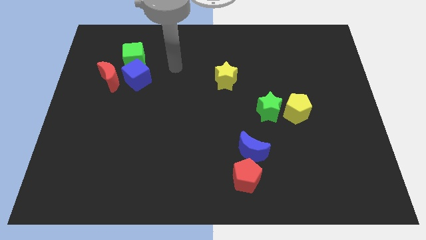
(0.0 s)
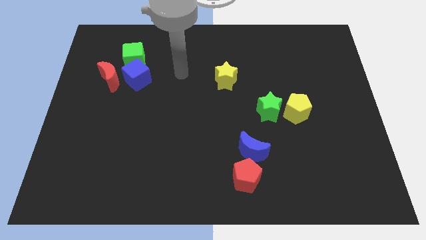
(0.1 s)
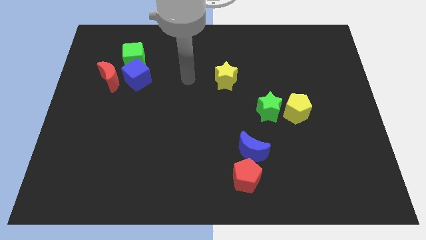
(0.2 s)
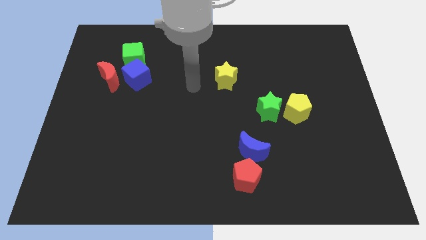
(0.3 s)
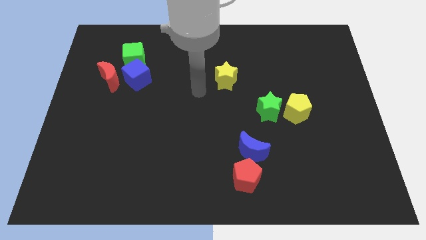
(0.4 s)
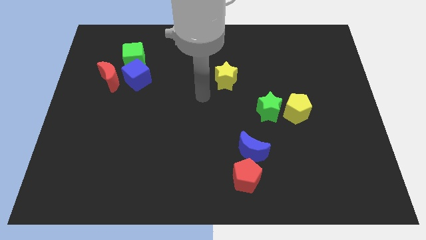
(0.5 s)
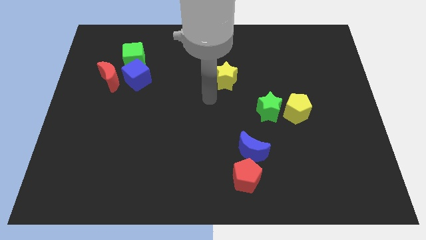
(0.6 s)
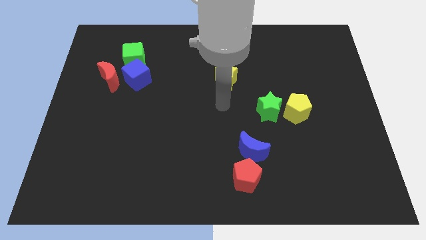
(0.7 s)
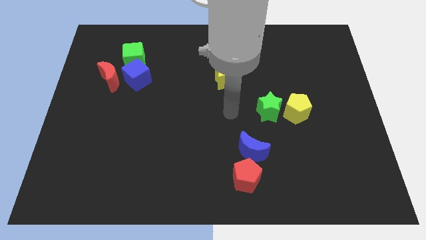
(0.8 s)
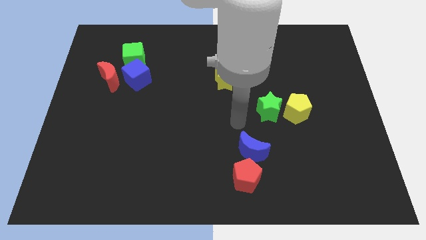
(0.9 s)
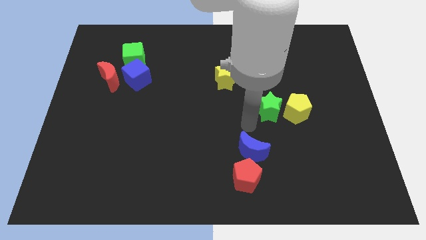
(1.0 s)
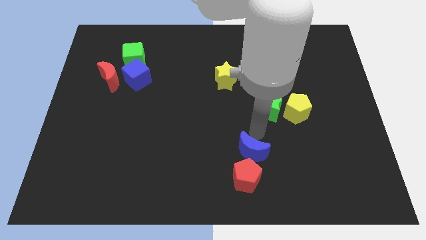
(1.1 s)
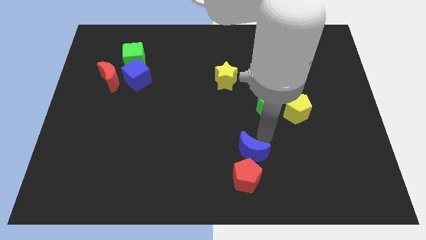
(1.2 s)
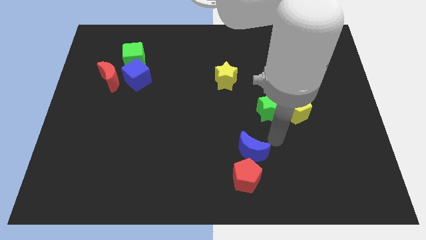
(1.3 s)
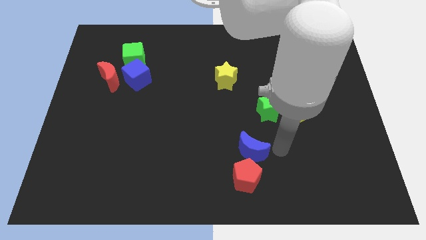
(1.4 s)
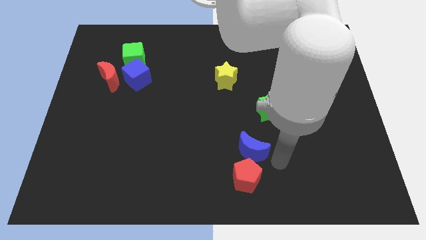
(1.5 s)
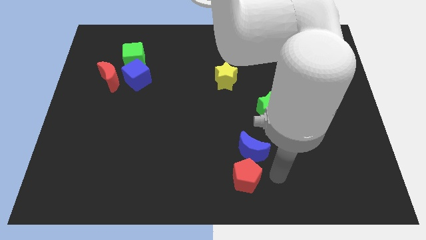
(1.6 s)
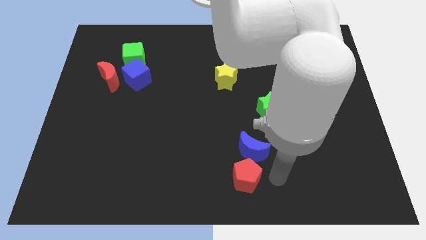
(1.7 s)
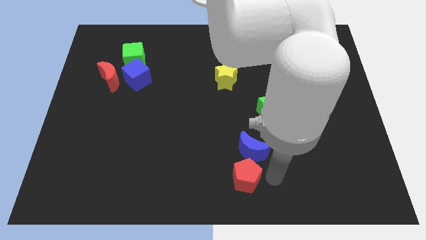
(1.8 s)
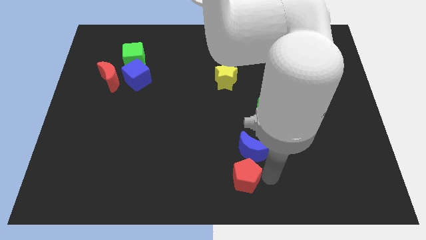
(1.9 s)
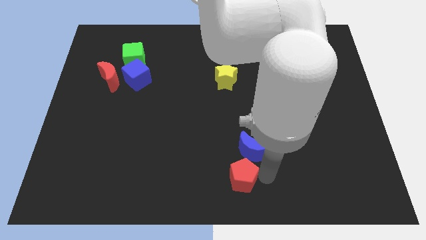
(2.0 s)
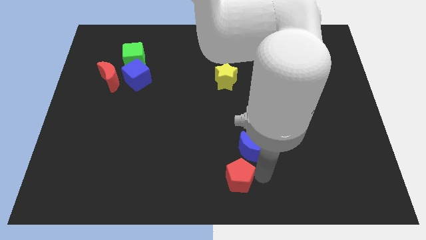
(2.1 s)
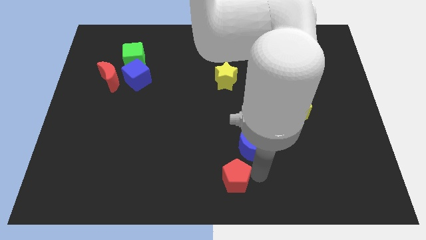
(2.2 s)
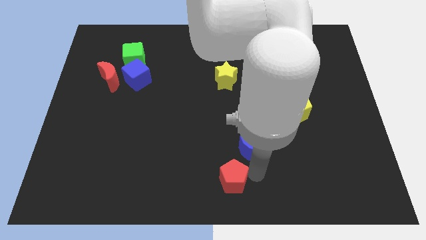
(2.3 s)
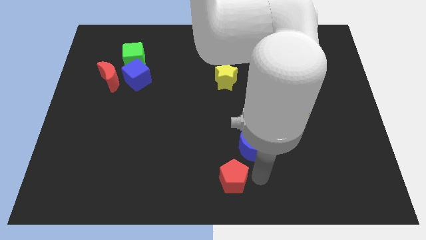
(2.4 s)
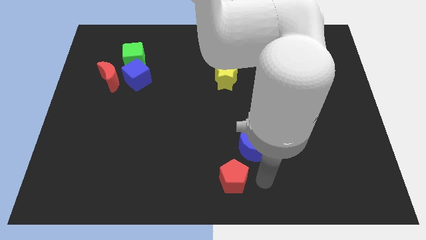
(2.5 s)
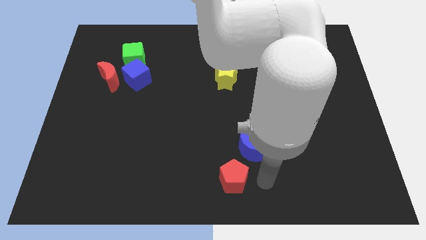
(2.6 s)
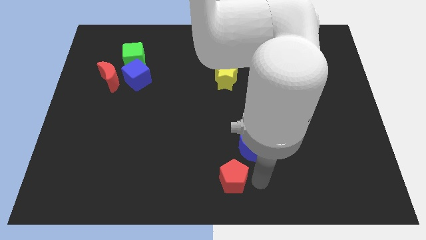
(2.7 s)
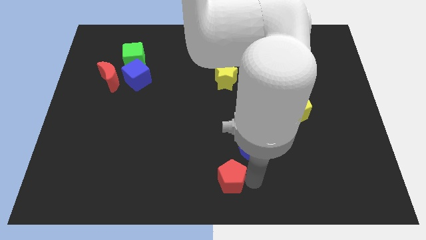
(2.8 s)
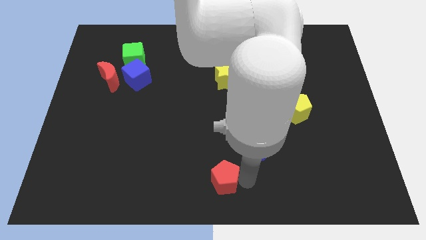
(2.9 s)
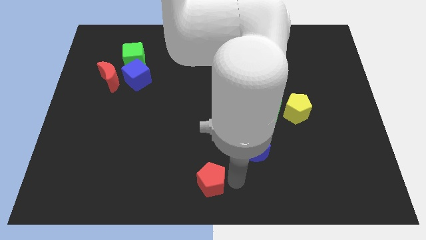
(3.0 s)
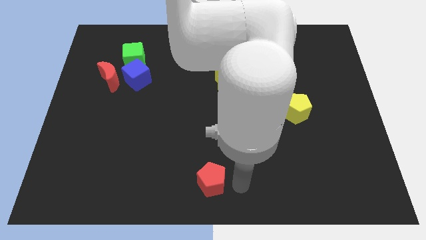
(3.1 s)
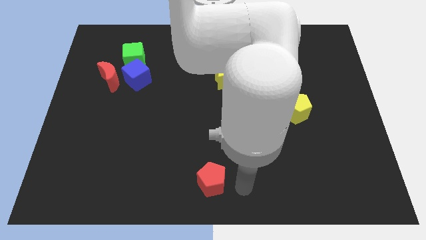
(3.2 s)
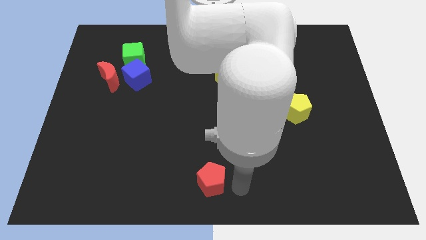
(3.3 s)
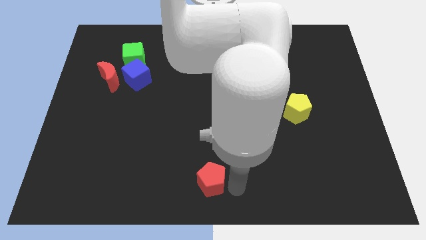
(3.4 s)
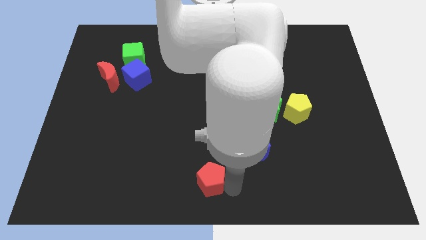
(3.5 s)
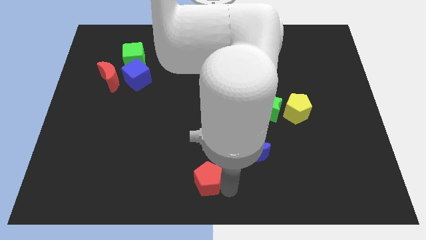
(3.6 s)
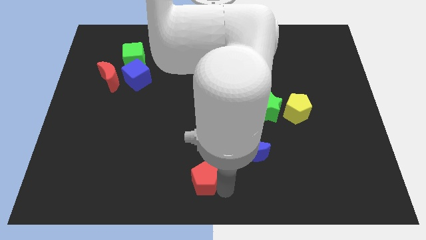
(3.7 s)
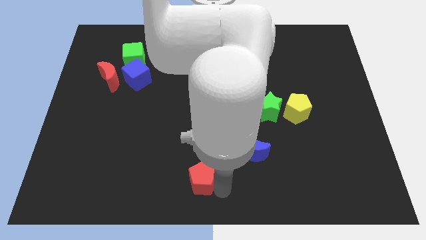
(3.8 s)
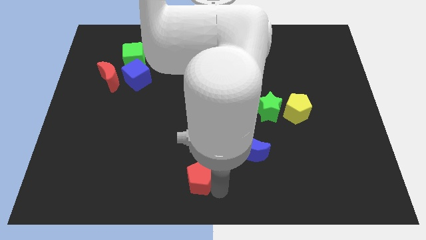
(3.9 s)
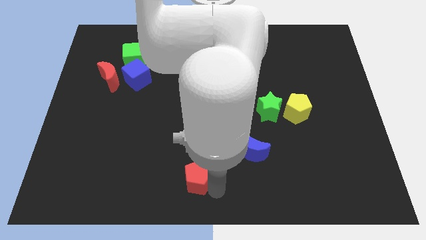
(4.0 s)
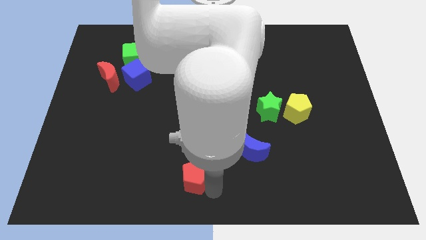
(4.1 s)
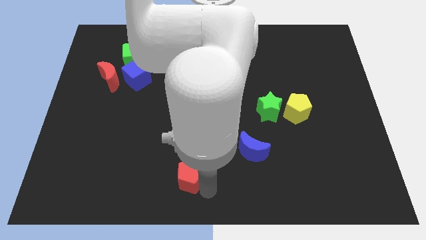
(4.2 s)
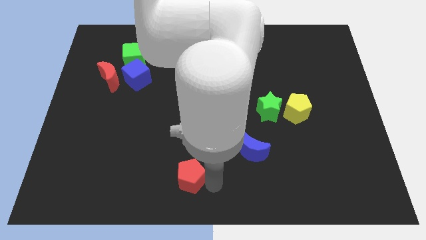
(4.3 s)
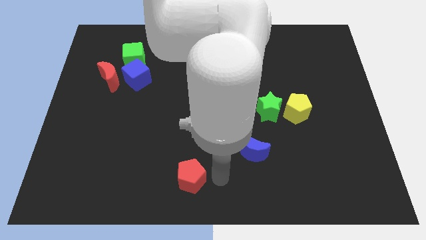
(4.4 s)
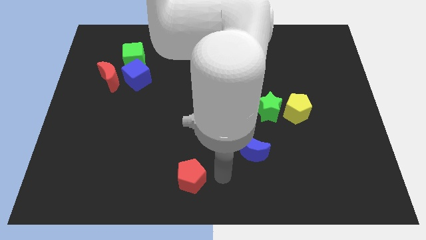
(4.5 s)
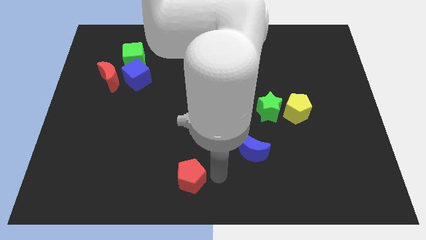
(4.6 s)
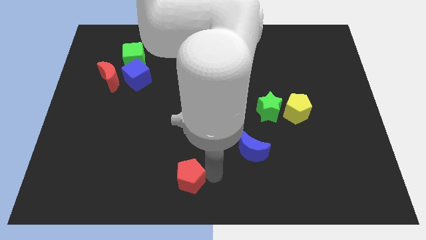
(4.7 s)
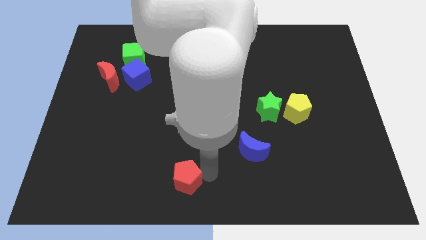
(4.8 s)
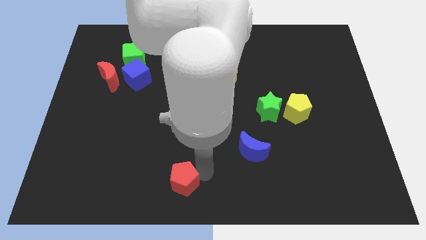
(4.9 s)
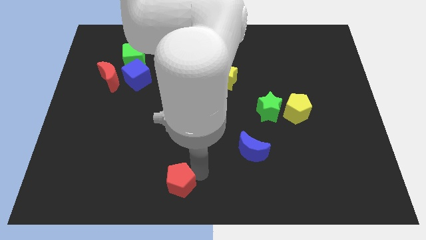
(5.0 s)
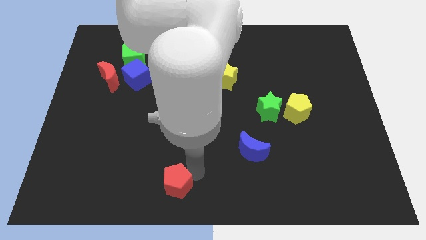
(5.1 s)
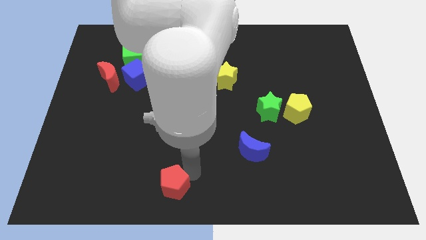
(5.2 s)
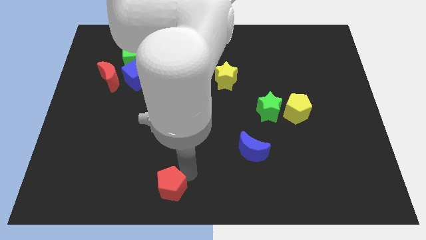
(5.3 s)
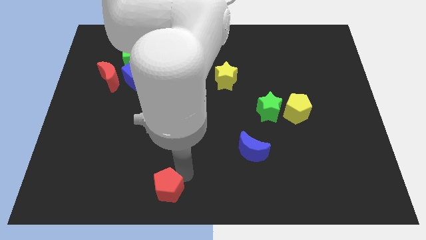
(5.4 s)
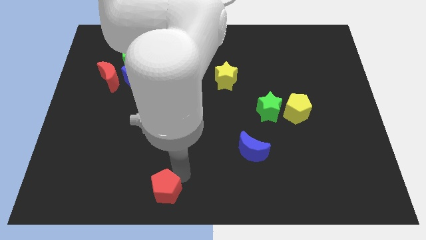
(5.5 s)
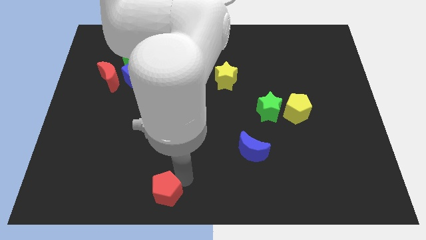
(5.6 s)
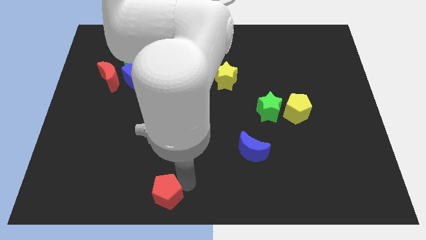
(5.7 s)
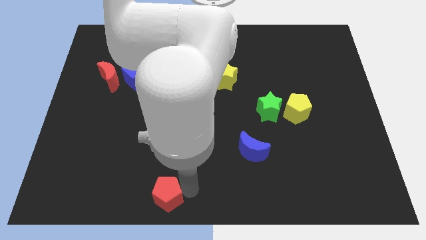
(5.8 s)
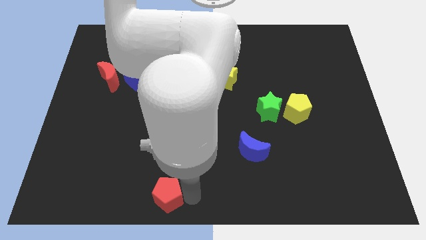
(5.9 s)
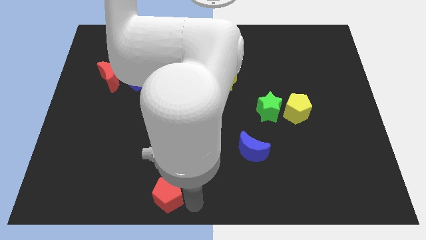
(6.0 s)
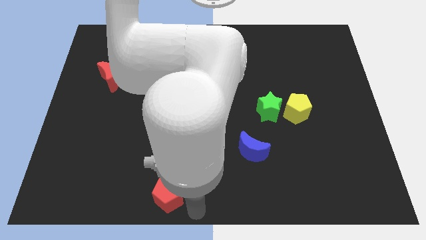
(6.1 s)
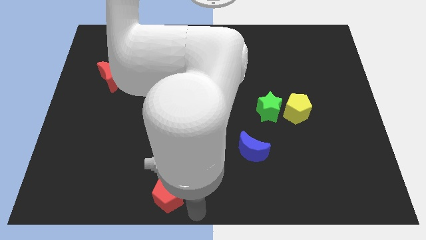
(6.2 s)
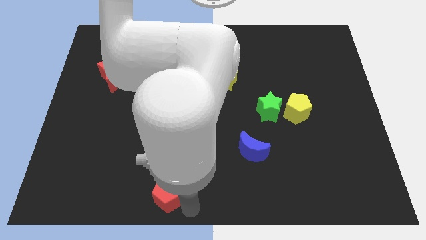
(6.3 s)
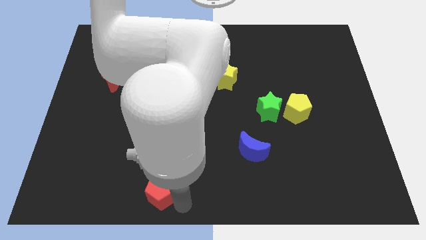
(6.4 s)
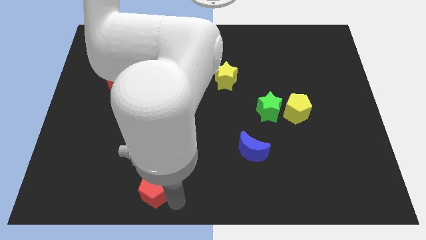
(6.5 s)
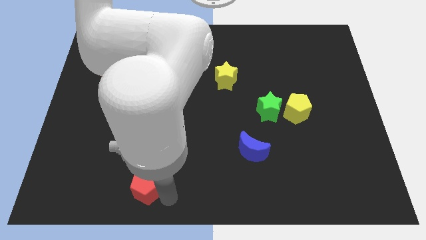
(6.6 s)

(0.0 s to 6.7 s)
push the red pentagon left

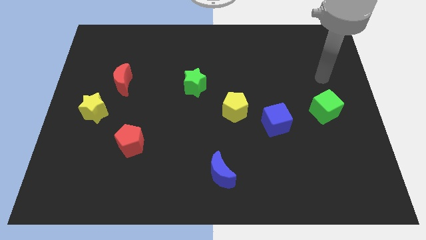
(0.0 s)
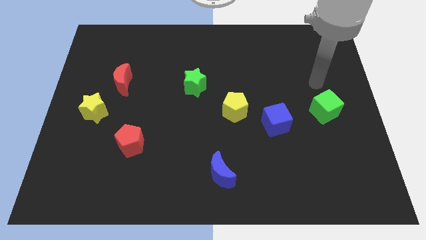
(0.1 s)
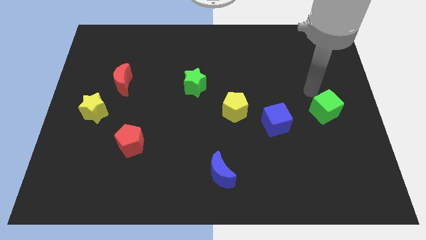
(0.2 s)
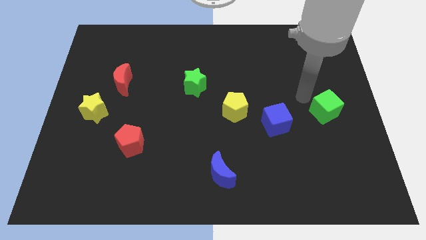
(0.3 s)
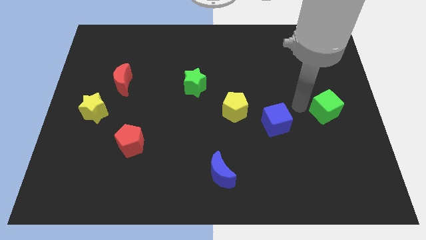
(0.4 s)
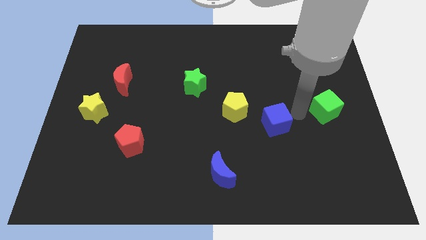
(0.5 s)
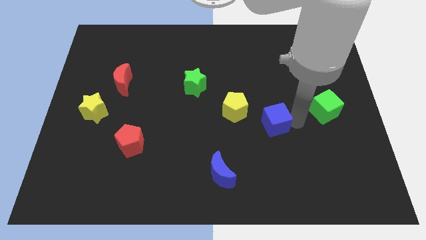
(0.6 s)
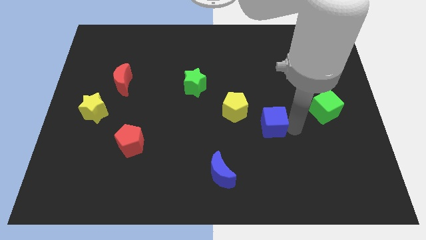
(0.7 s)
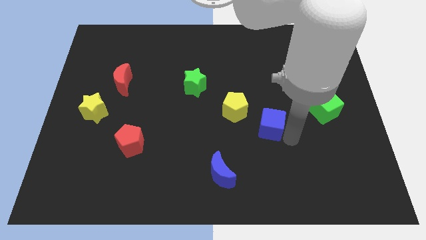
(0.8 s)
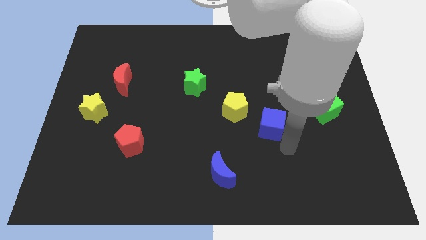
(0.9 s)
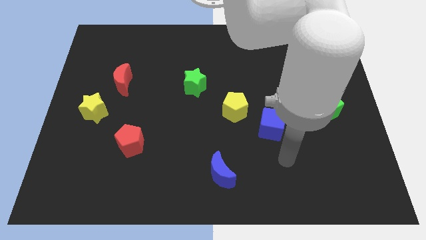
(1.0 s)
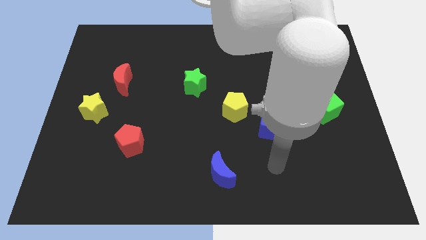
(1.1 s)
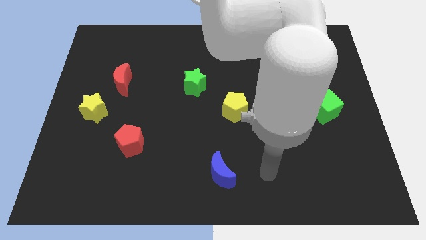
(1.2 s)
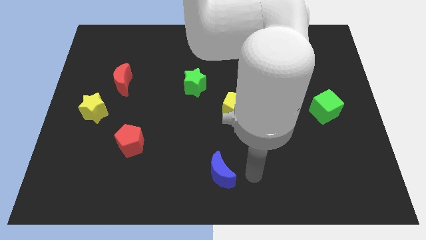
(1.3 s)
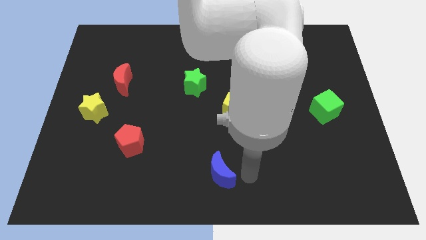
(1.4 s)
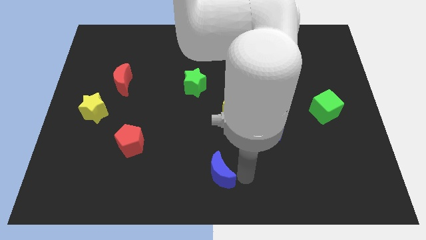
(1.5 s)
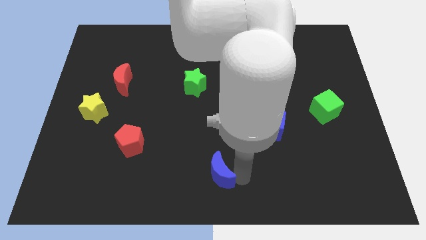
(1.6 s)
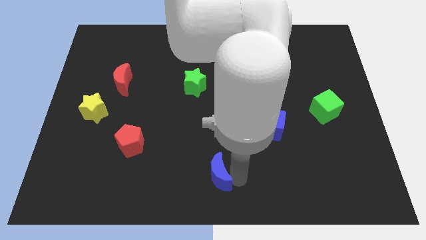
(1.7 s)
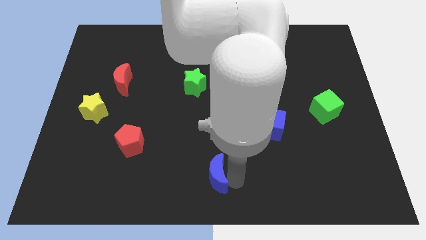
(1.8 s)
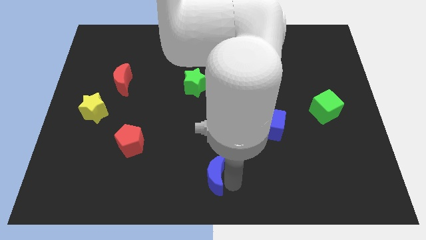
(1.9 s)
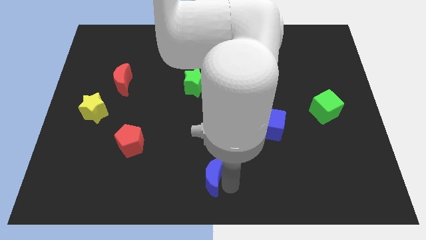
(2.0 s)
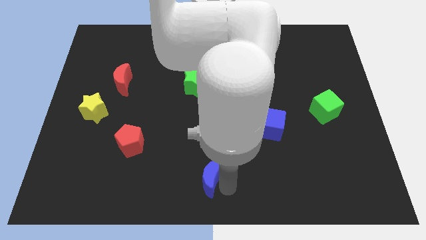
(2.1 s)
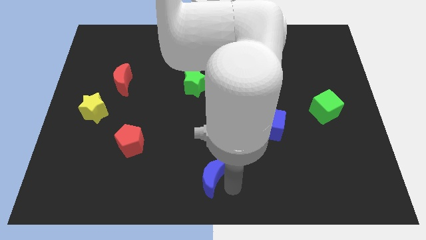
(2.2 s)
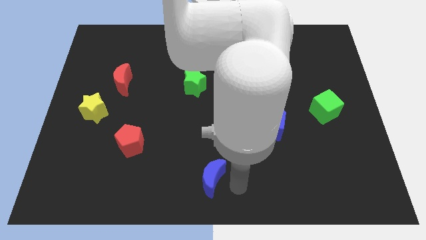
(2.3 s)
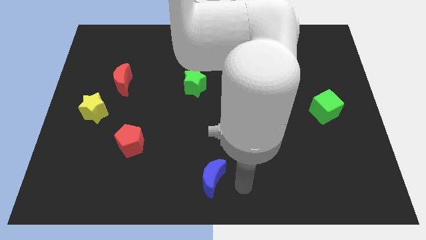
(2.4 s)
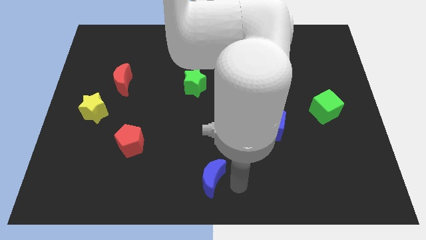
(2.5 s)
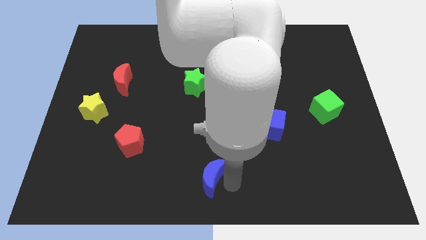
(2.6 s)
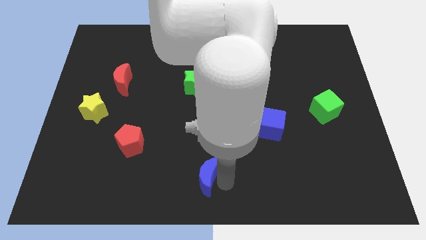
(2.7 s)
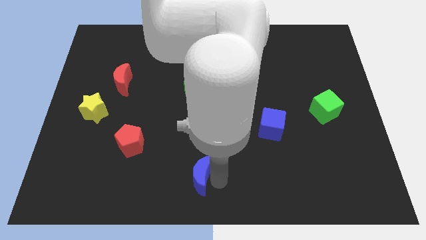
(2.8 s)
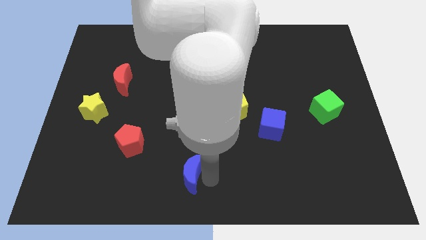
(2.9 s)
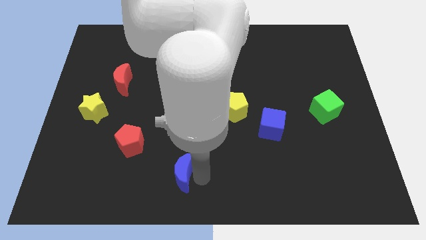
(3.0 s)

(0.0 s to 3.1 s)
slightly slide the blue moon left
